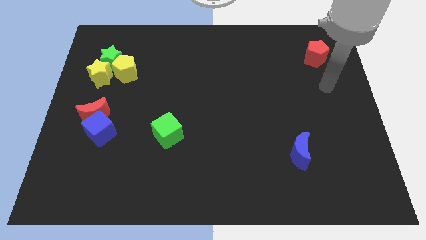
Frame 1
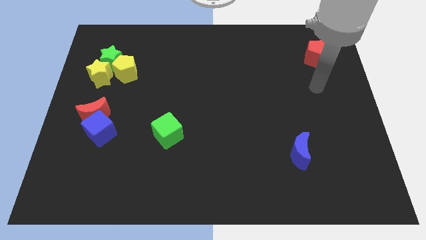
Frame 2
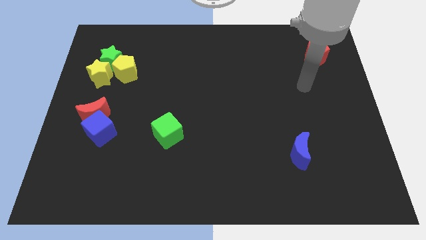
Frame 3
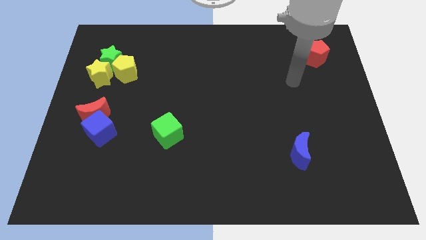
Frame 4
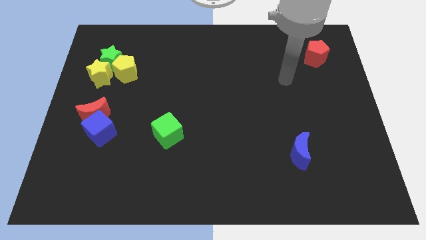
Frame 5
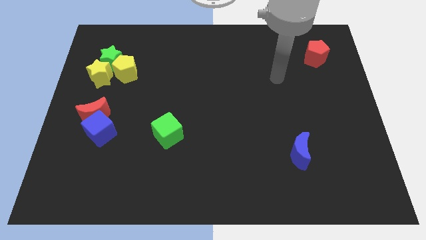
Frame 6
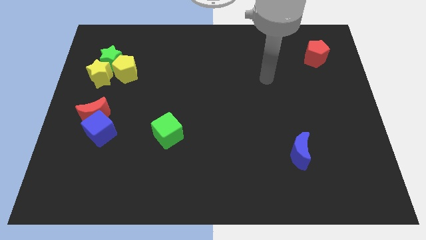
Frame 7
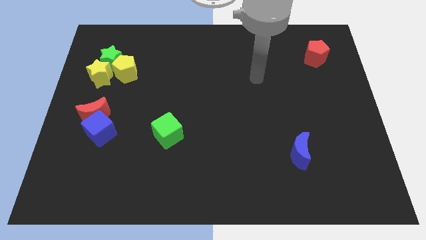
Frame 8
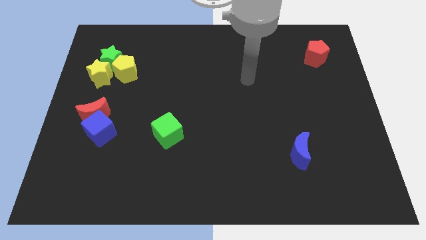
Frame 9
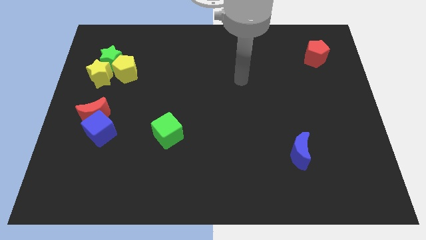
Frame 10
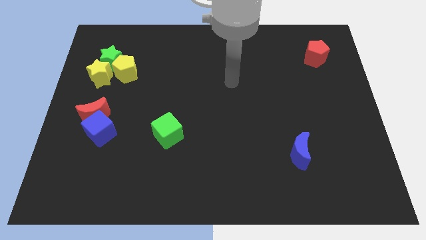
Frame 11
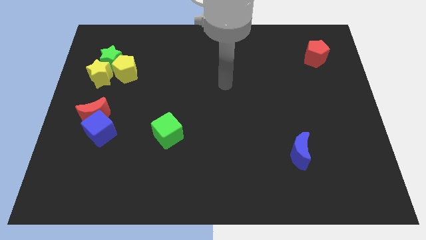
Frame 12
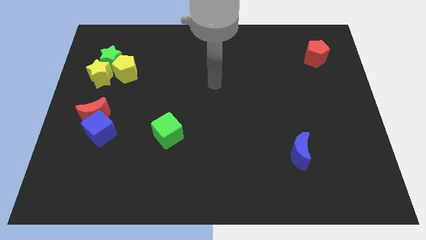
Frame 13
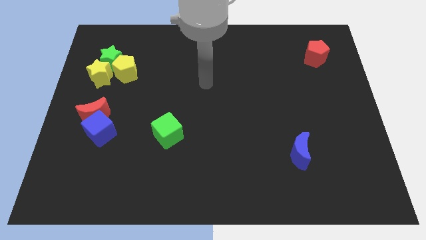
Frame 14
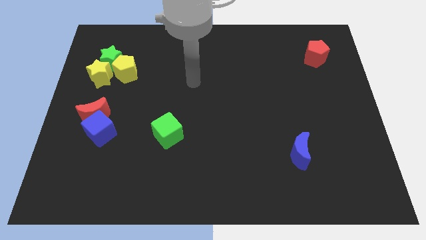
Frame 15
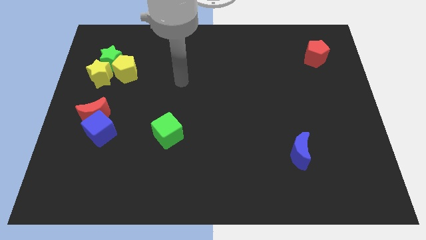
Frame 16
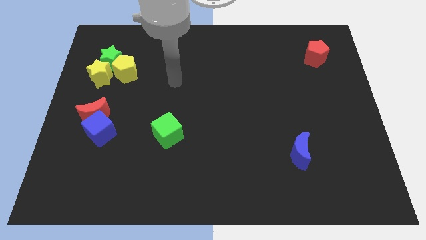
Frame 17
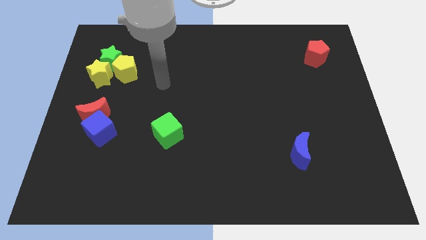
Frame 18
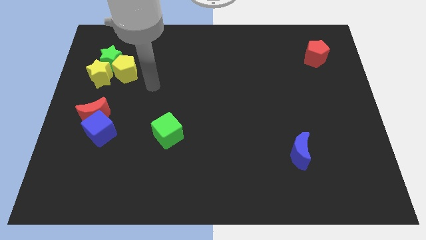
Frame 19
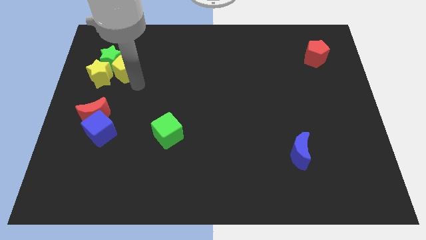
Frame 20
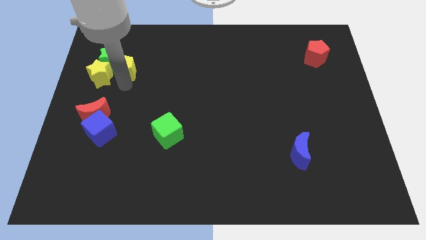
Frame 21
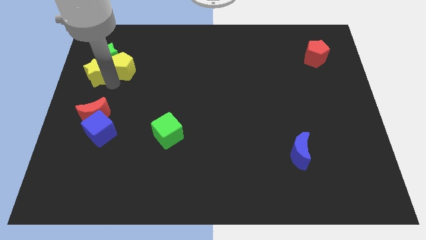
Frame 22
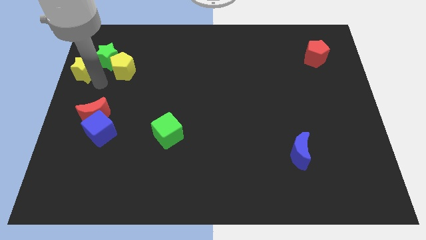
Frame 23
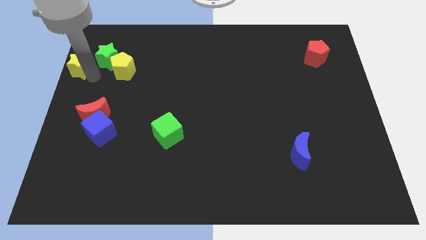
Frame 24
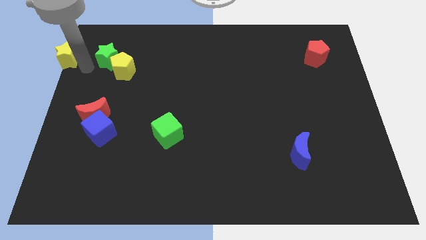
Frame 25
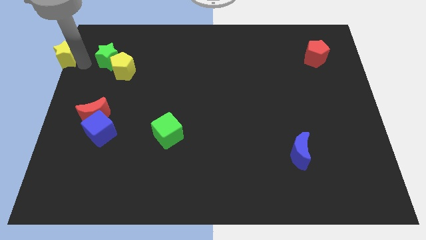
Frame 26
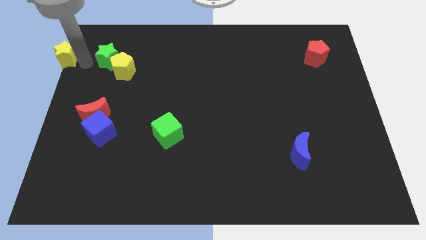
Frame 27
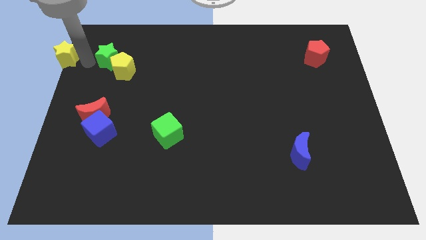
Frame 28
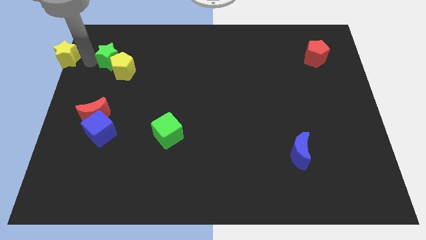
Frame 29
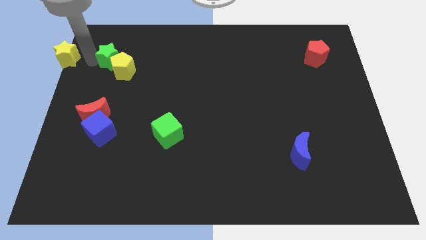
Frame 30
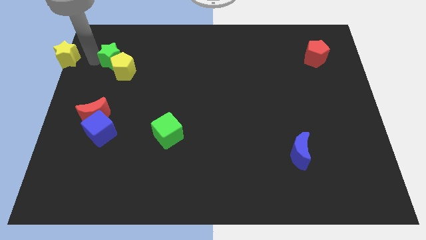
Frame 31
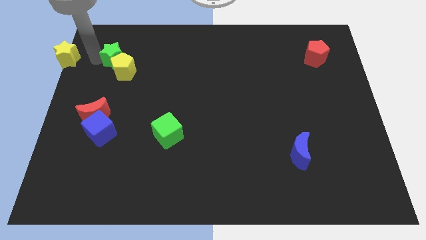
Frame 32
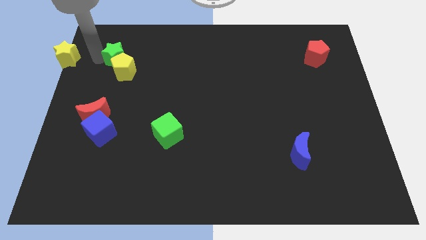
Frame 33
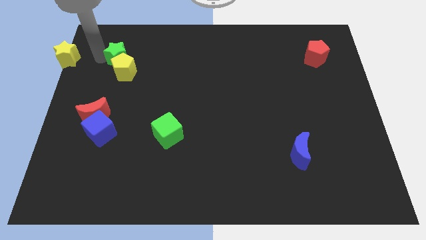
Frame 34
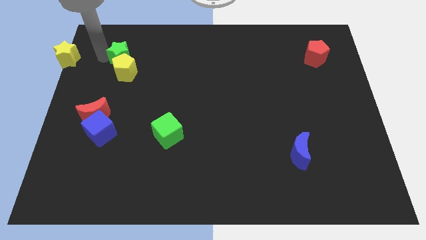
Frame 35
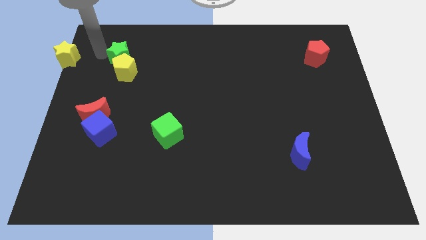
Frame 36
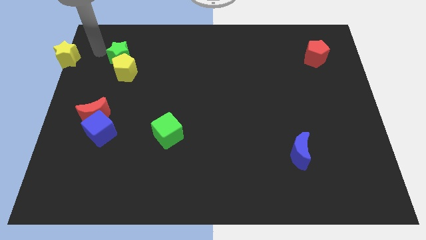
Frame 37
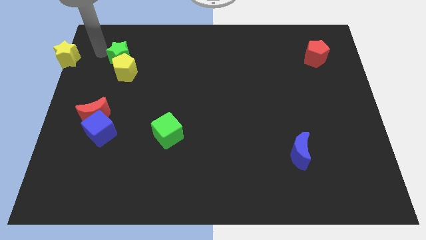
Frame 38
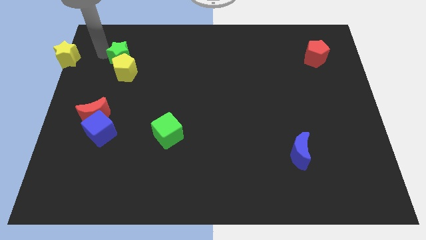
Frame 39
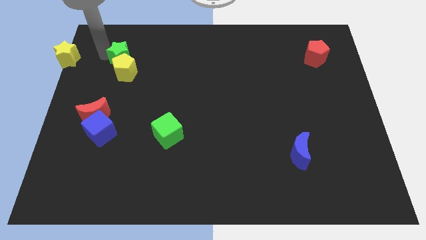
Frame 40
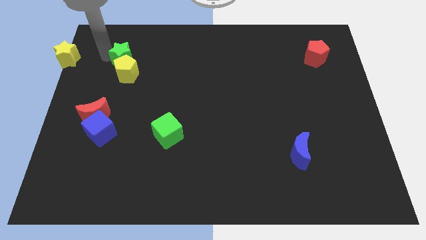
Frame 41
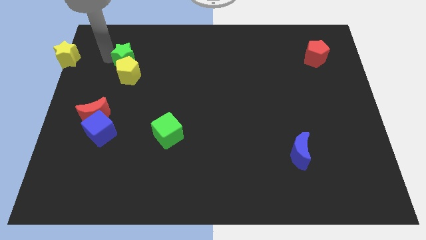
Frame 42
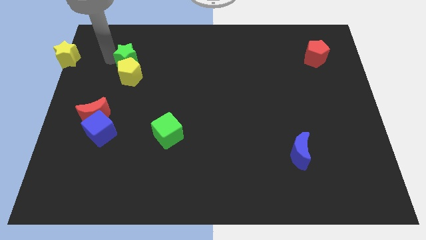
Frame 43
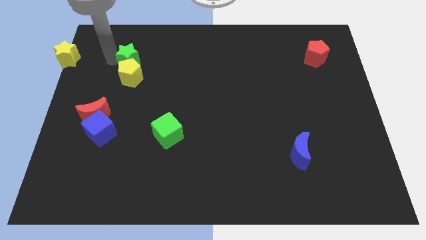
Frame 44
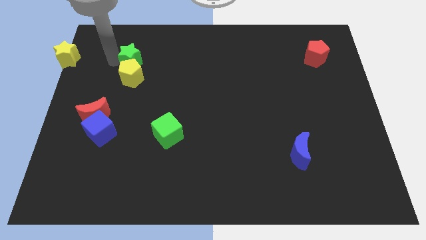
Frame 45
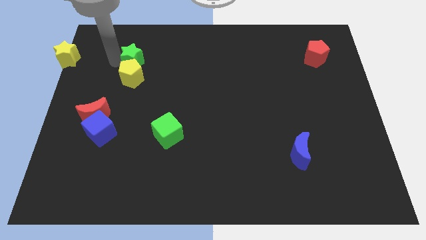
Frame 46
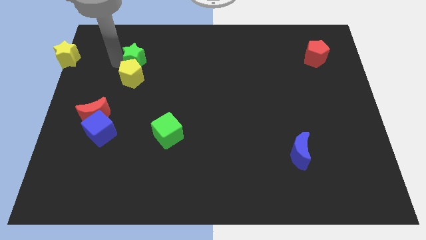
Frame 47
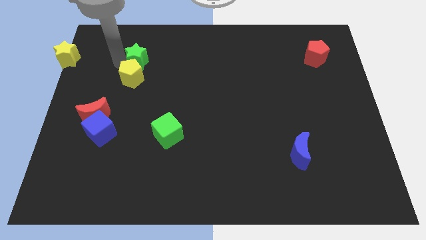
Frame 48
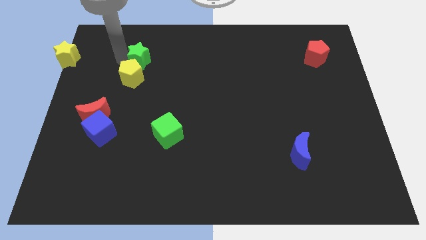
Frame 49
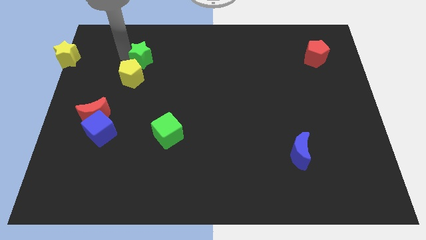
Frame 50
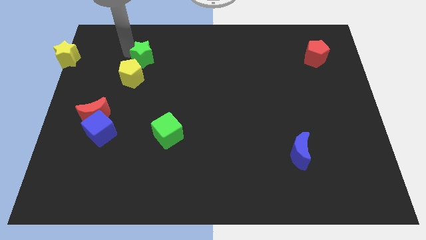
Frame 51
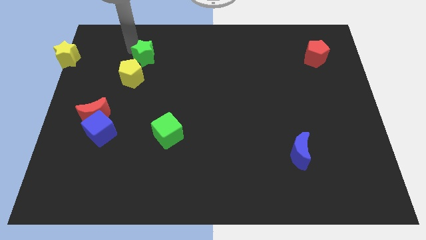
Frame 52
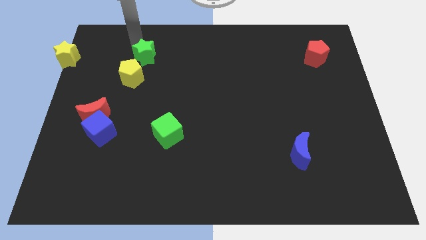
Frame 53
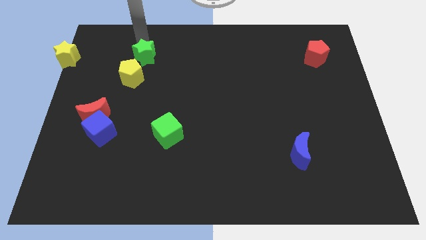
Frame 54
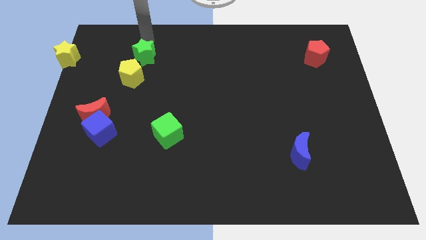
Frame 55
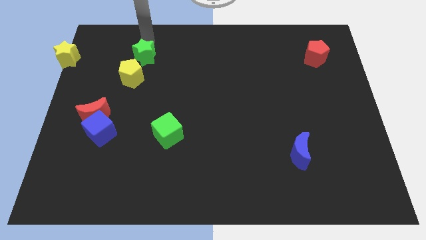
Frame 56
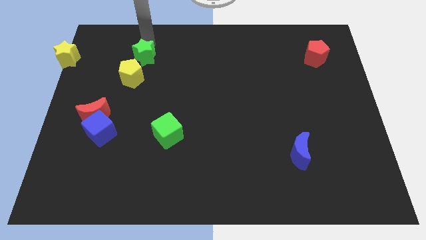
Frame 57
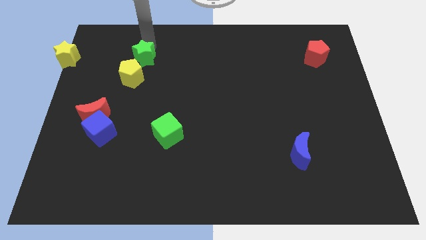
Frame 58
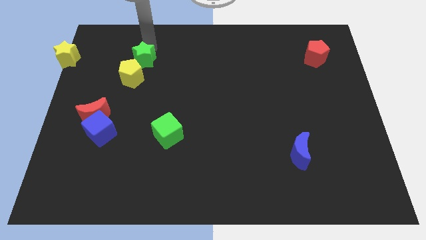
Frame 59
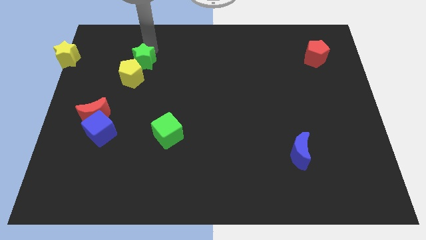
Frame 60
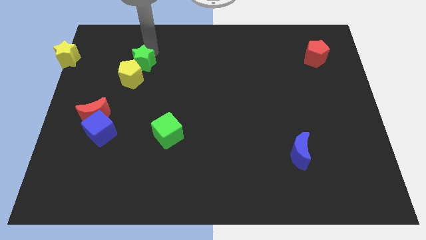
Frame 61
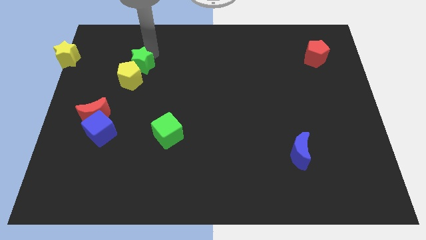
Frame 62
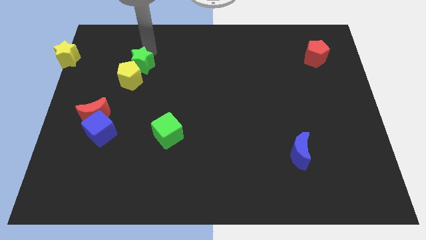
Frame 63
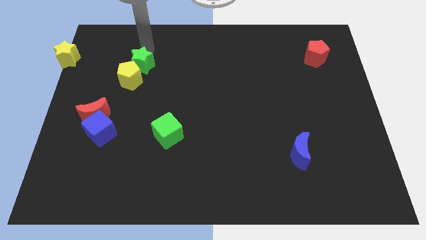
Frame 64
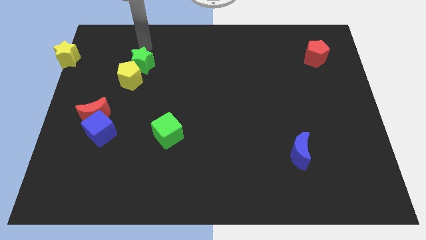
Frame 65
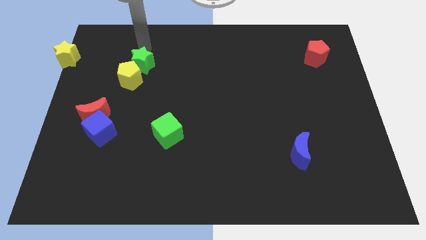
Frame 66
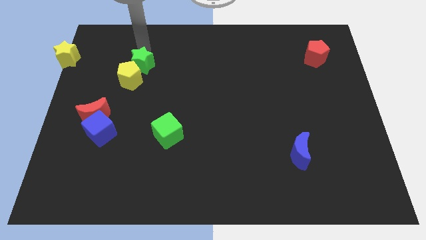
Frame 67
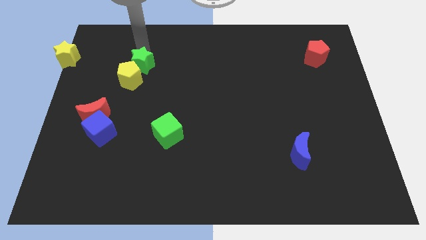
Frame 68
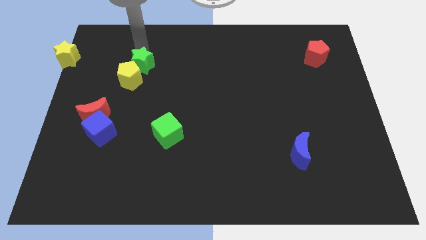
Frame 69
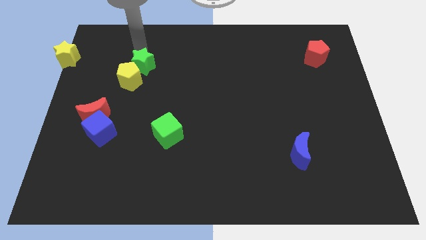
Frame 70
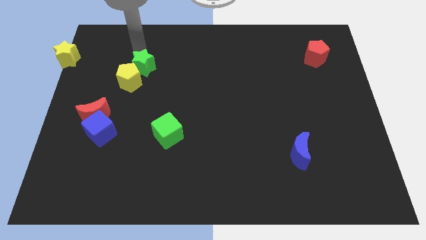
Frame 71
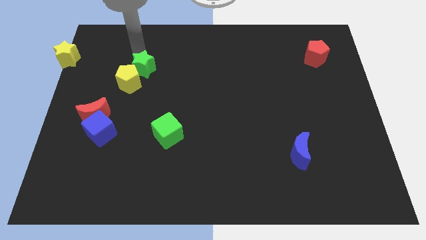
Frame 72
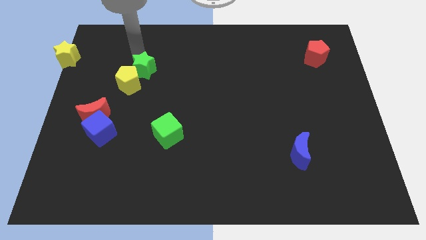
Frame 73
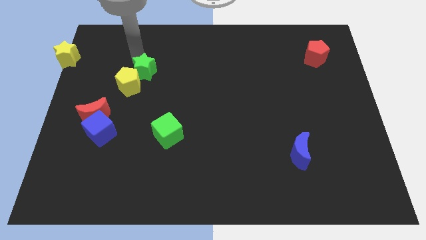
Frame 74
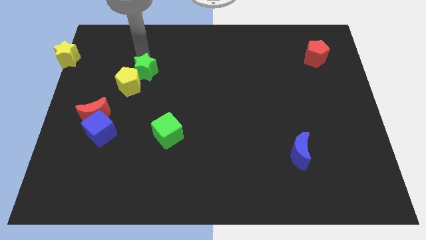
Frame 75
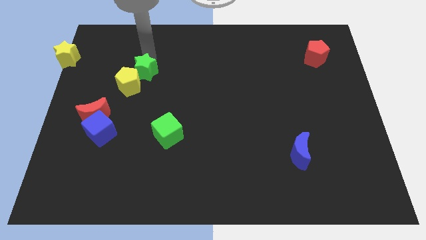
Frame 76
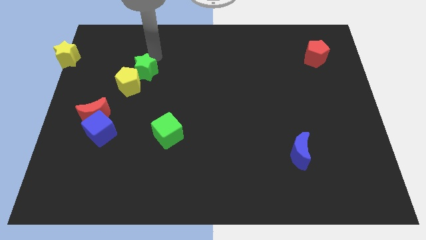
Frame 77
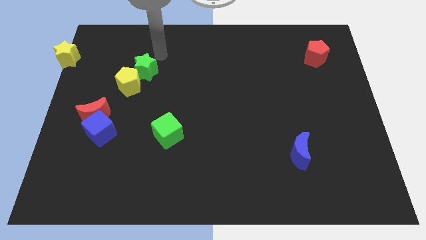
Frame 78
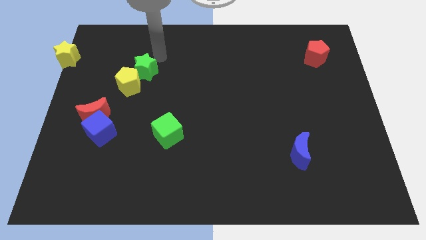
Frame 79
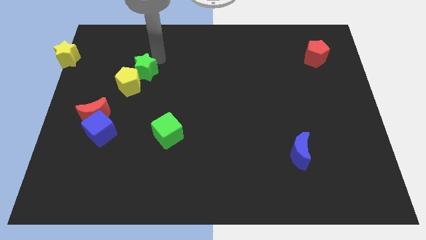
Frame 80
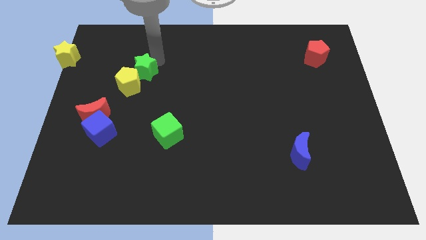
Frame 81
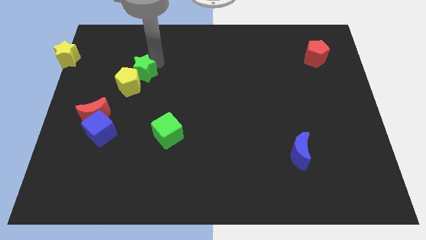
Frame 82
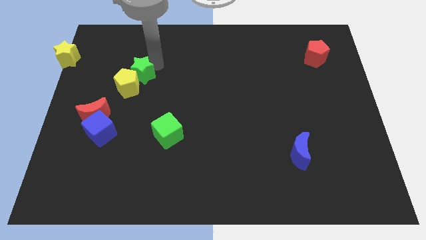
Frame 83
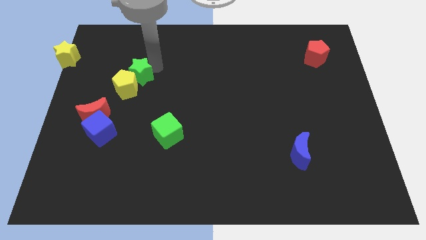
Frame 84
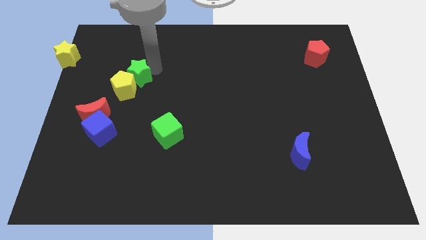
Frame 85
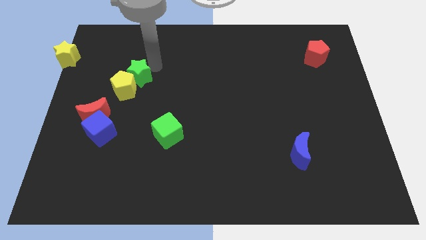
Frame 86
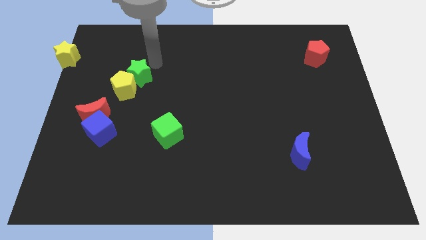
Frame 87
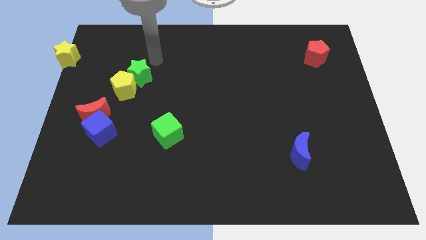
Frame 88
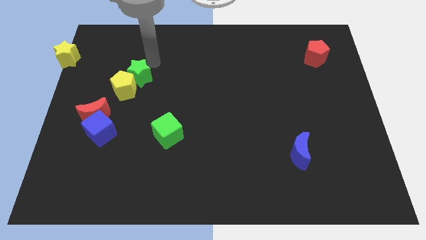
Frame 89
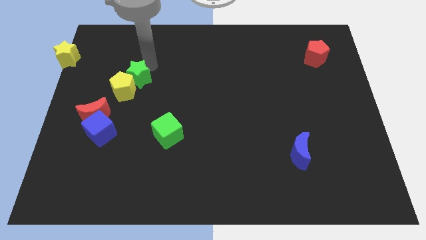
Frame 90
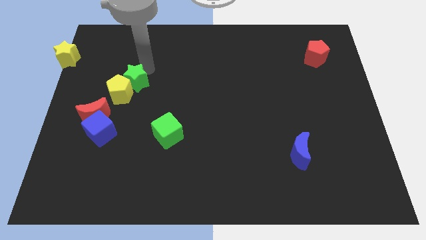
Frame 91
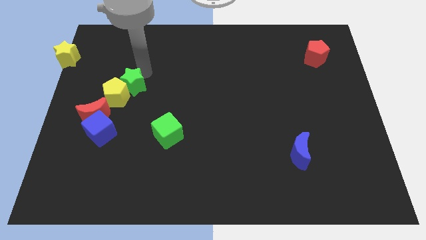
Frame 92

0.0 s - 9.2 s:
slide the green star to the top right of the red moon
